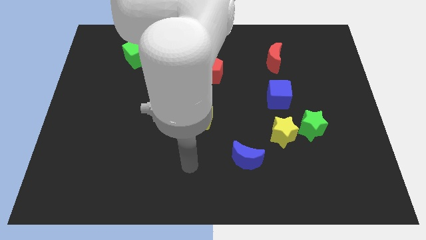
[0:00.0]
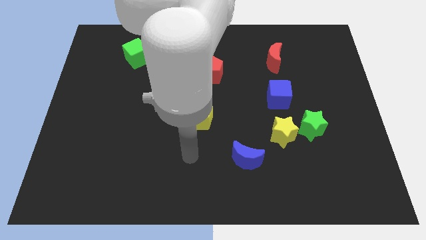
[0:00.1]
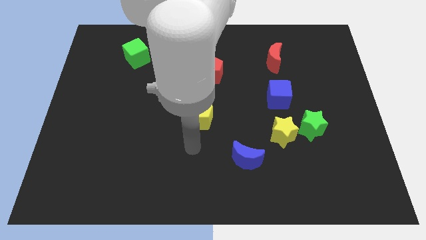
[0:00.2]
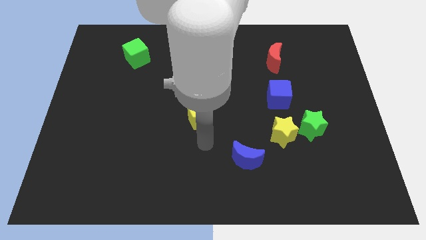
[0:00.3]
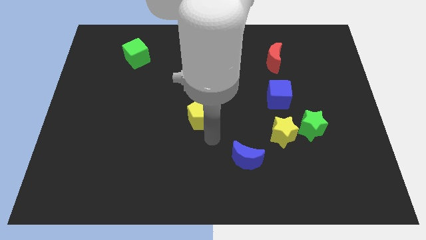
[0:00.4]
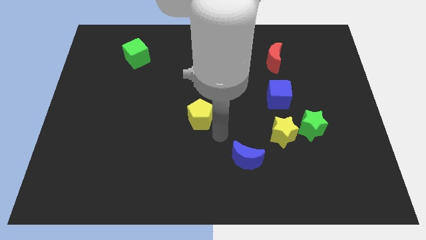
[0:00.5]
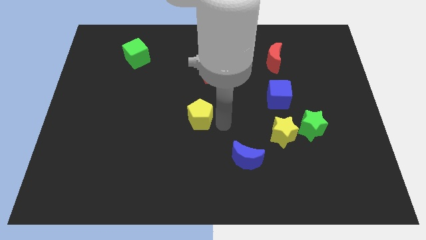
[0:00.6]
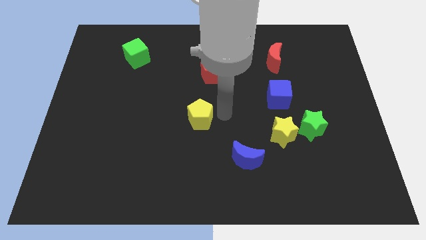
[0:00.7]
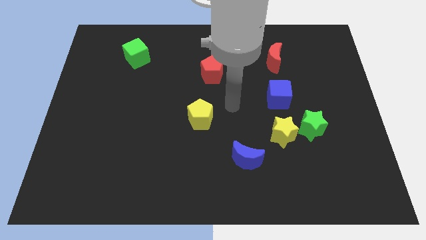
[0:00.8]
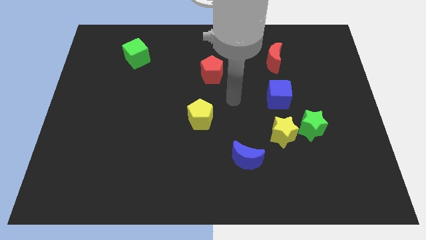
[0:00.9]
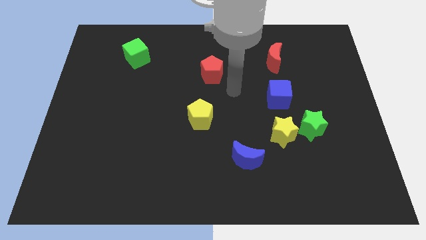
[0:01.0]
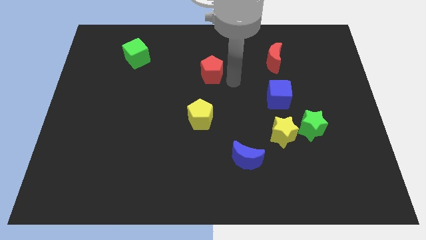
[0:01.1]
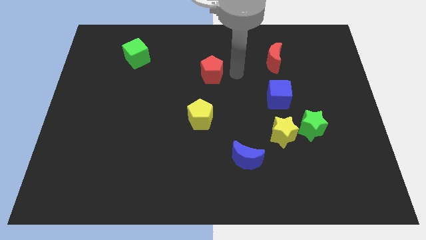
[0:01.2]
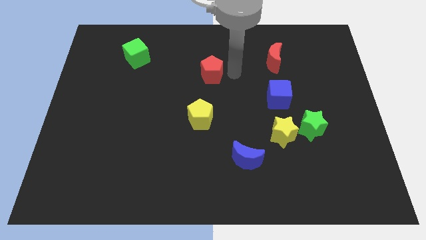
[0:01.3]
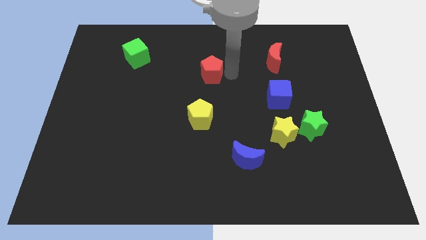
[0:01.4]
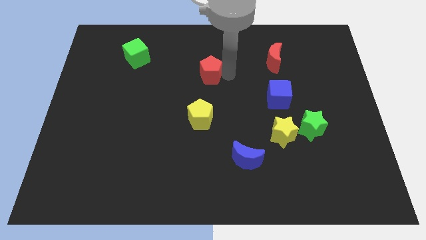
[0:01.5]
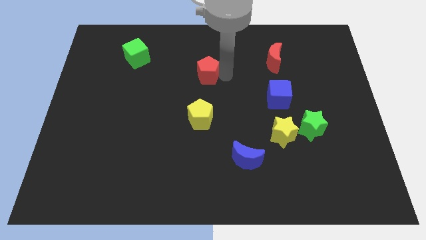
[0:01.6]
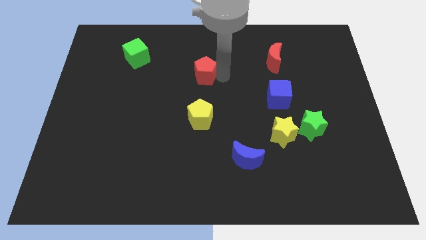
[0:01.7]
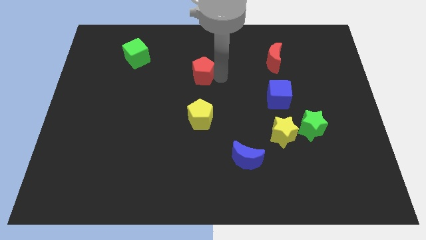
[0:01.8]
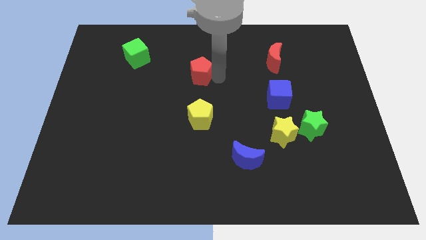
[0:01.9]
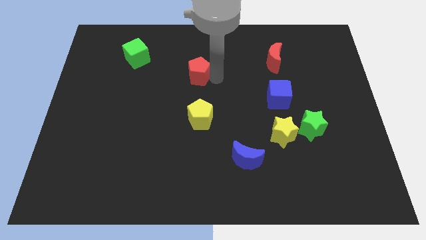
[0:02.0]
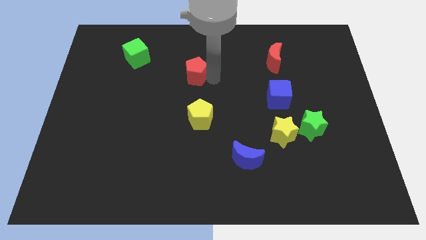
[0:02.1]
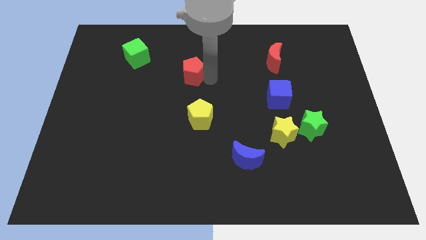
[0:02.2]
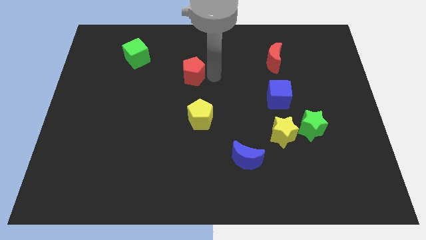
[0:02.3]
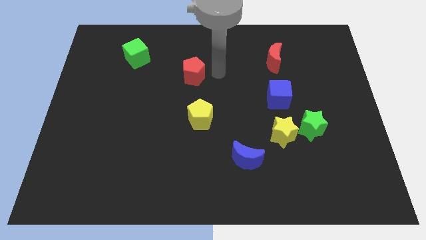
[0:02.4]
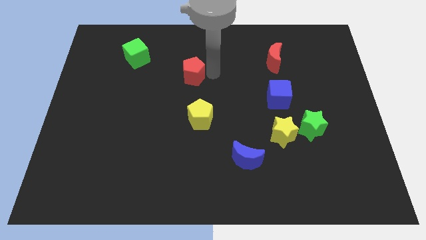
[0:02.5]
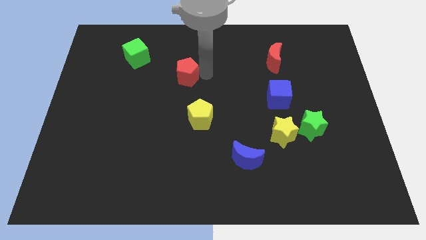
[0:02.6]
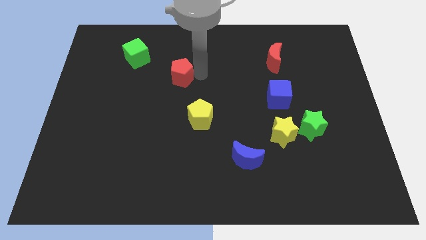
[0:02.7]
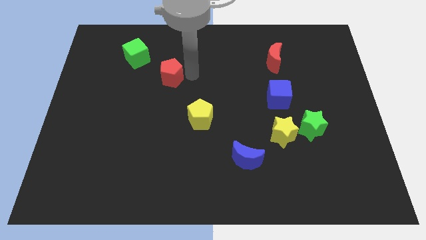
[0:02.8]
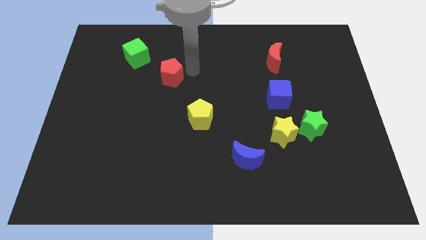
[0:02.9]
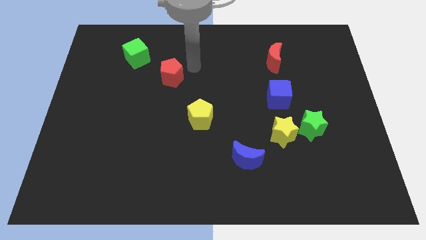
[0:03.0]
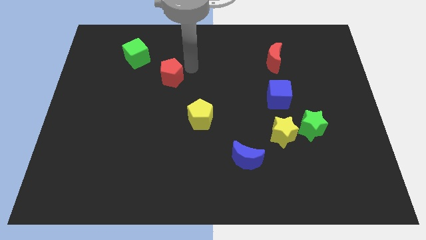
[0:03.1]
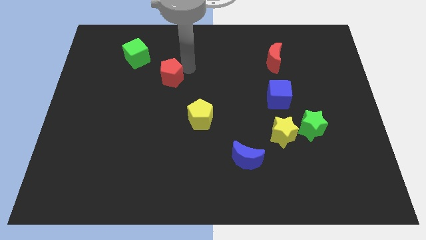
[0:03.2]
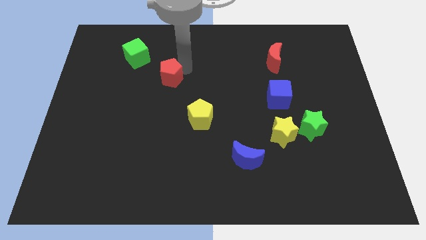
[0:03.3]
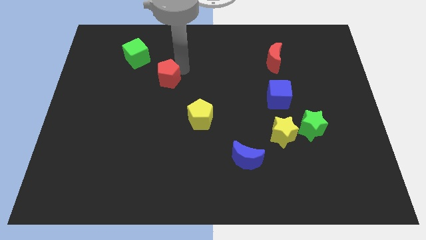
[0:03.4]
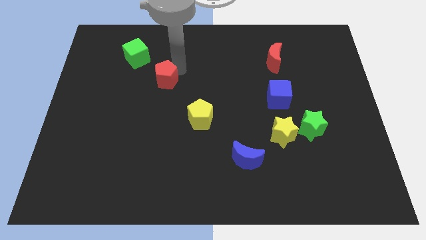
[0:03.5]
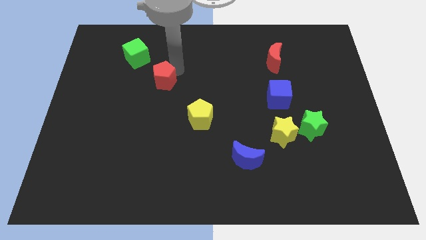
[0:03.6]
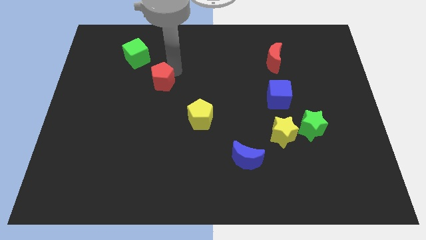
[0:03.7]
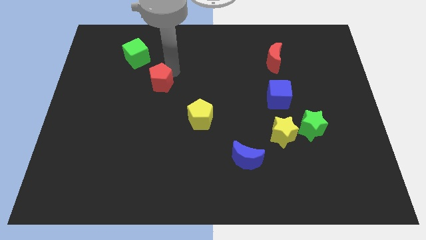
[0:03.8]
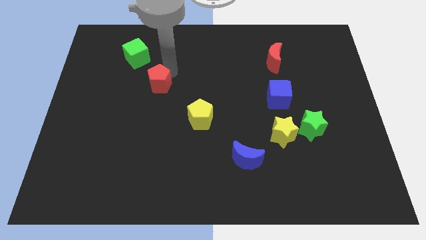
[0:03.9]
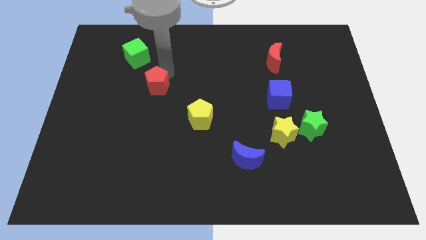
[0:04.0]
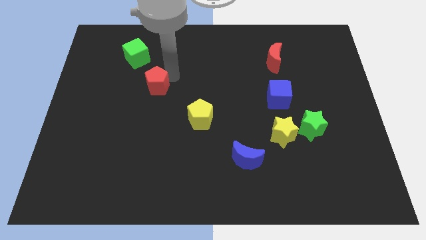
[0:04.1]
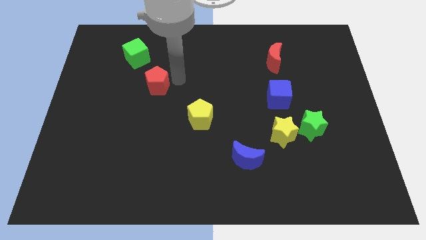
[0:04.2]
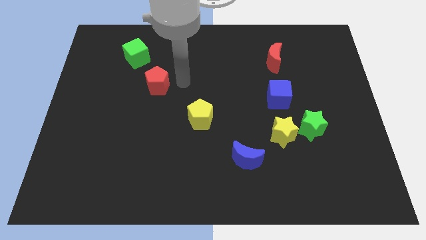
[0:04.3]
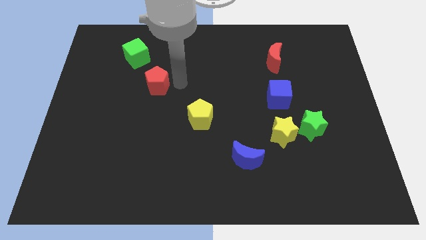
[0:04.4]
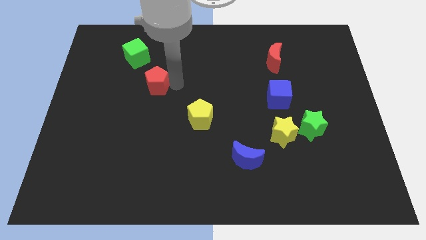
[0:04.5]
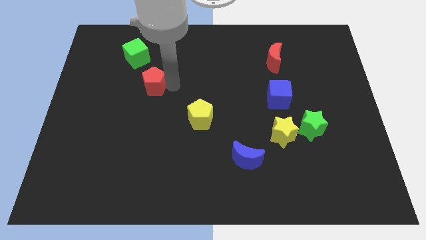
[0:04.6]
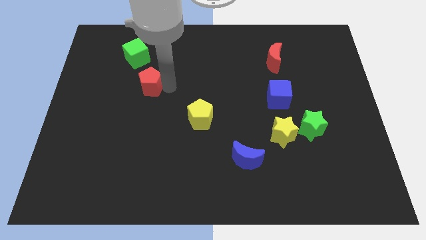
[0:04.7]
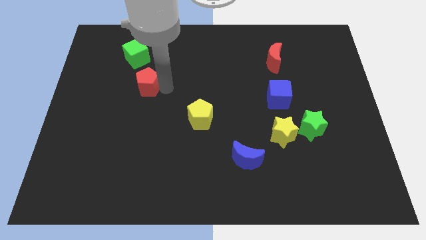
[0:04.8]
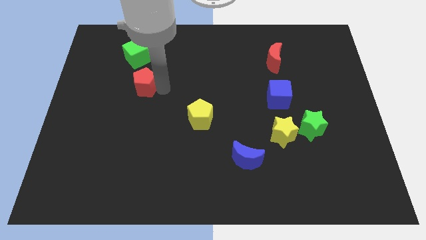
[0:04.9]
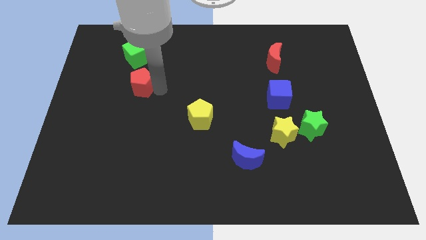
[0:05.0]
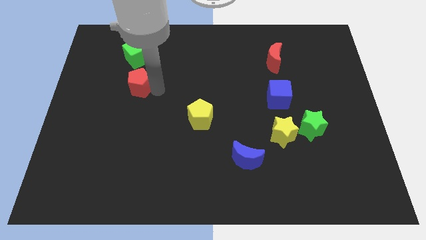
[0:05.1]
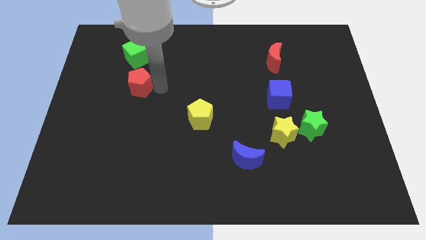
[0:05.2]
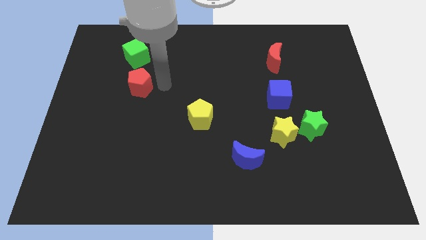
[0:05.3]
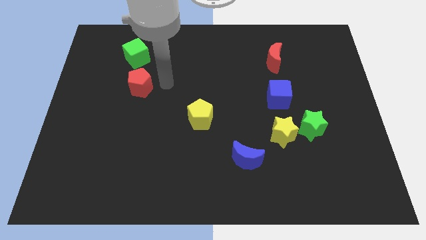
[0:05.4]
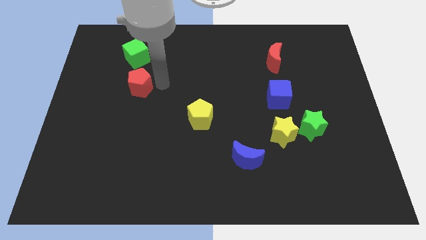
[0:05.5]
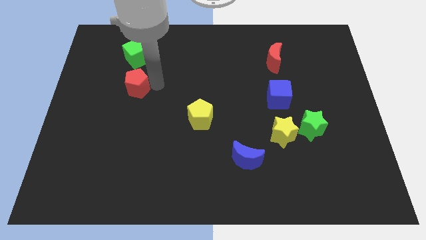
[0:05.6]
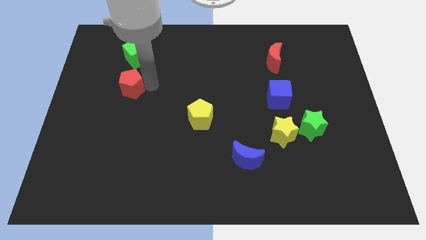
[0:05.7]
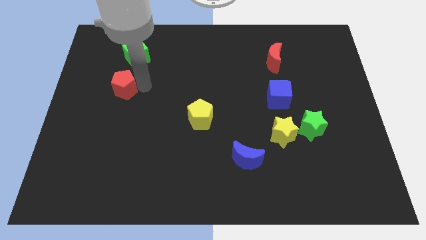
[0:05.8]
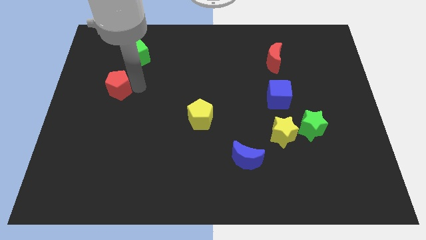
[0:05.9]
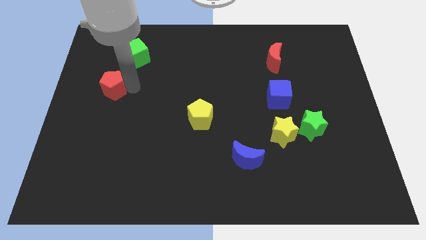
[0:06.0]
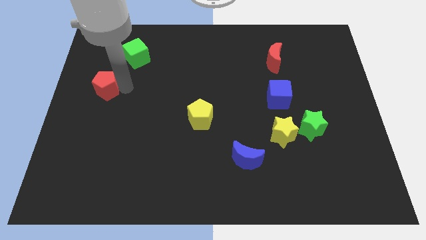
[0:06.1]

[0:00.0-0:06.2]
push the red pentagon to the left side
